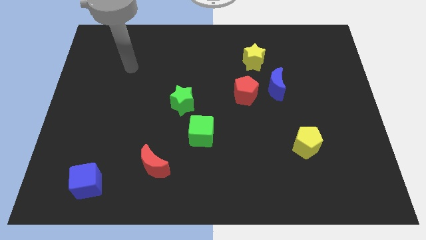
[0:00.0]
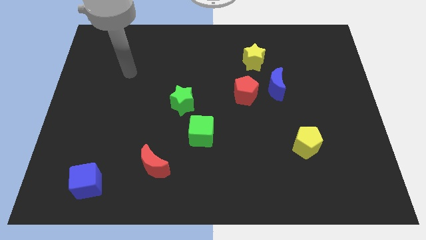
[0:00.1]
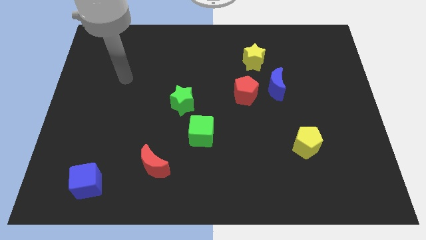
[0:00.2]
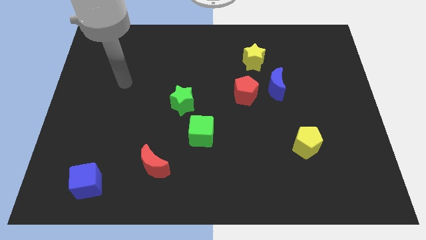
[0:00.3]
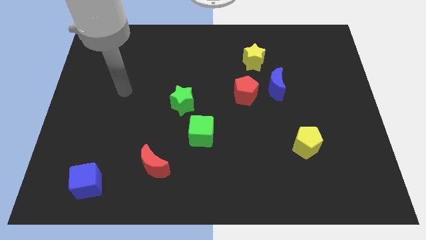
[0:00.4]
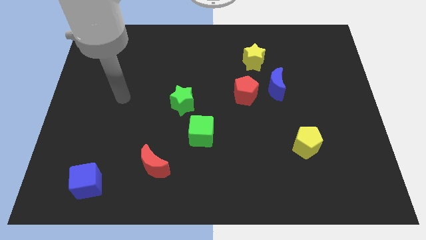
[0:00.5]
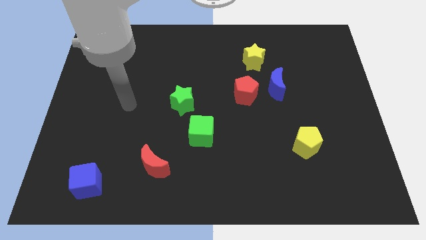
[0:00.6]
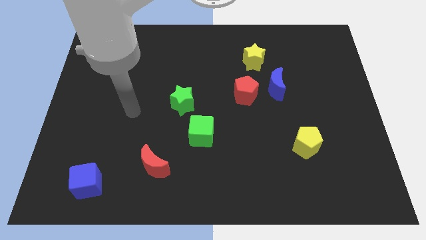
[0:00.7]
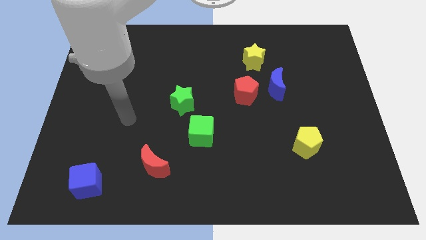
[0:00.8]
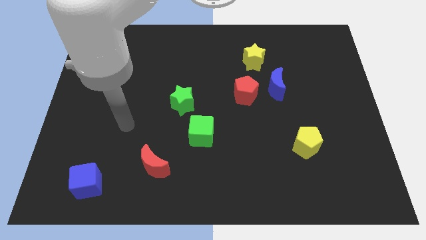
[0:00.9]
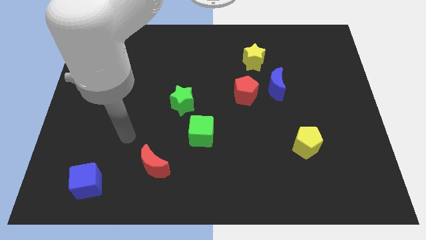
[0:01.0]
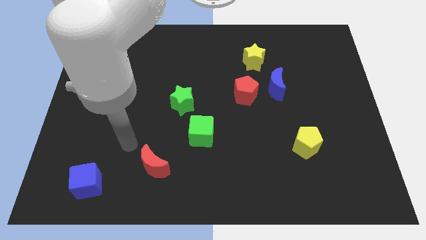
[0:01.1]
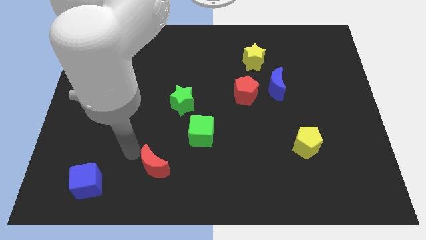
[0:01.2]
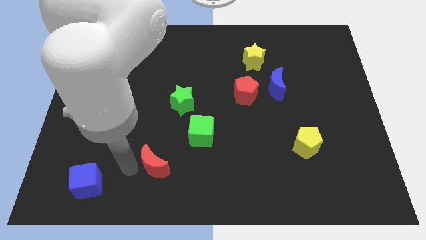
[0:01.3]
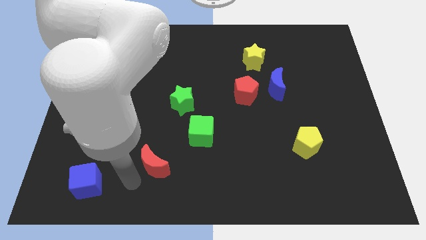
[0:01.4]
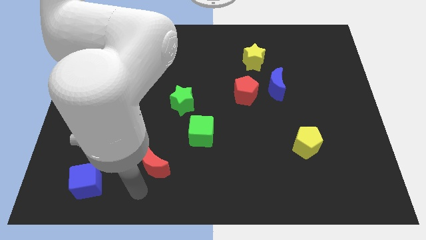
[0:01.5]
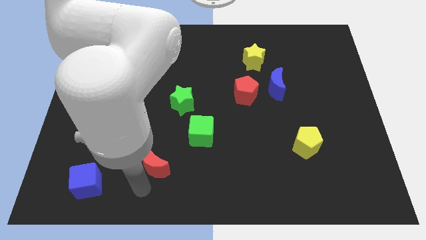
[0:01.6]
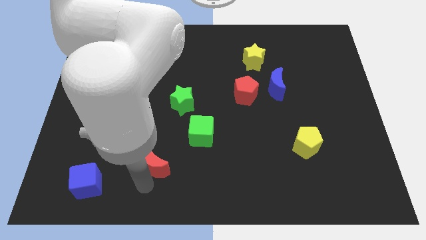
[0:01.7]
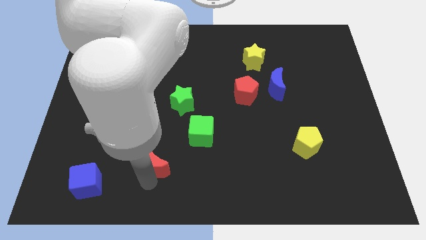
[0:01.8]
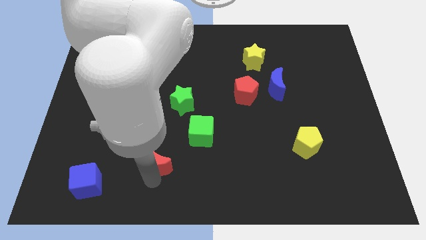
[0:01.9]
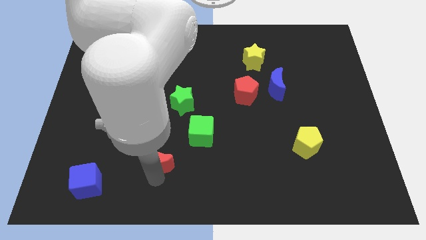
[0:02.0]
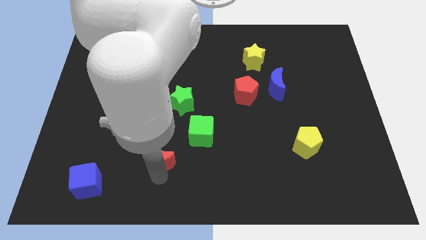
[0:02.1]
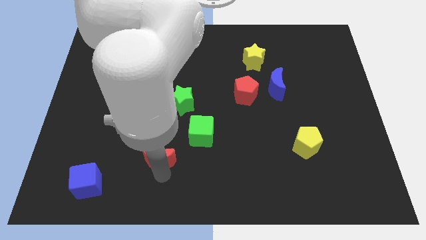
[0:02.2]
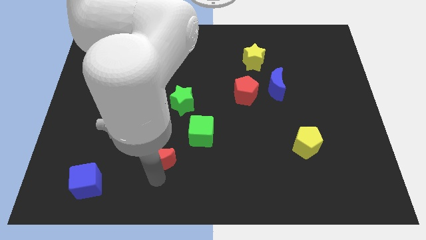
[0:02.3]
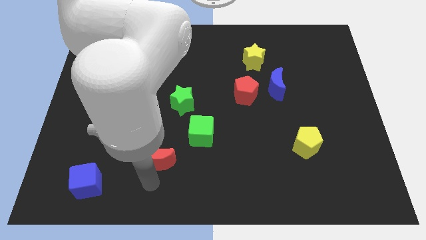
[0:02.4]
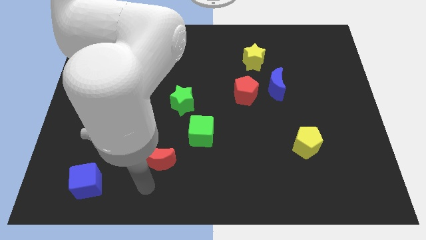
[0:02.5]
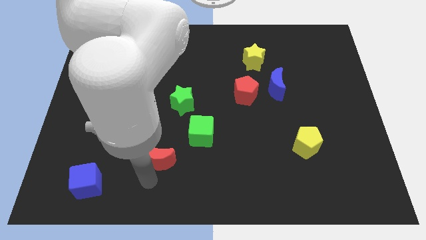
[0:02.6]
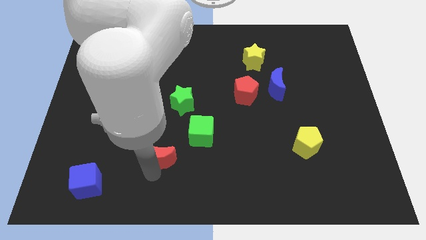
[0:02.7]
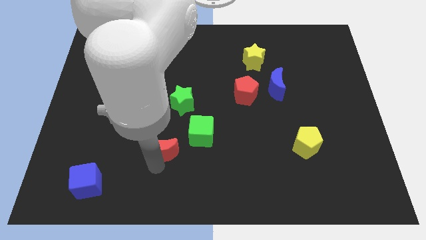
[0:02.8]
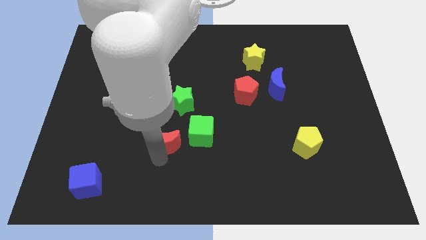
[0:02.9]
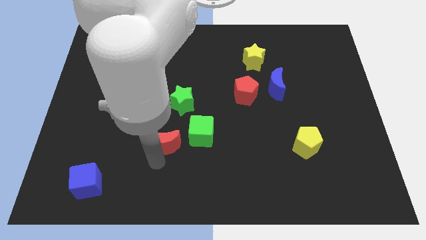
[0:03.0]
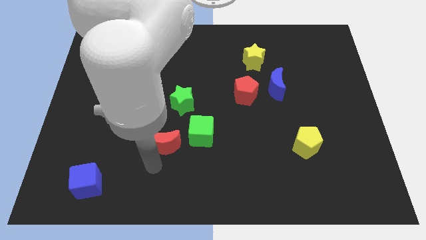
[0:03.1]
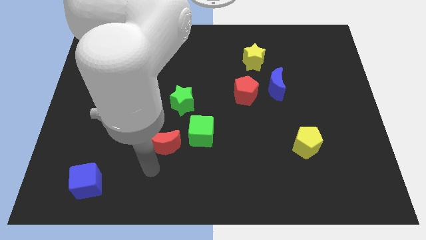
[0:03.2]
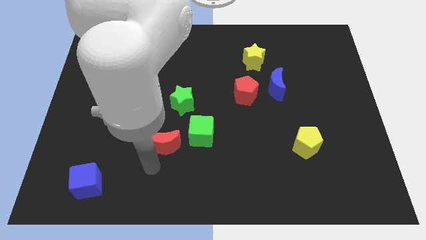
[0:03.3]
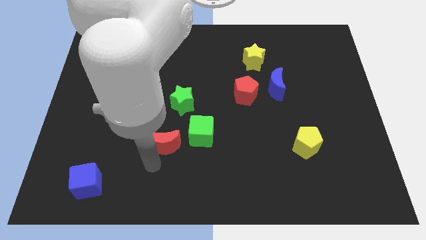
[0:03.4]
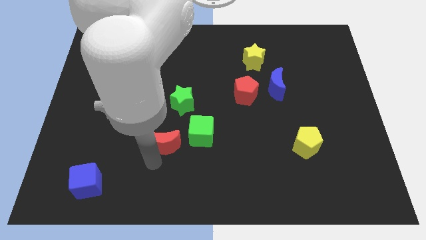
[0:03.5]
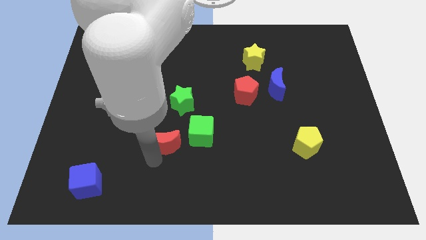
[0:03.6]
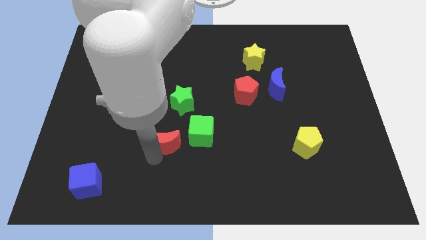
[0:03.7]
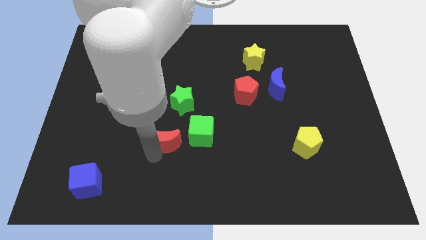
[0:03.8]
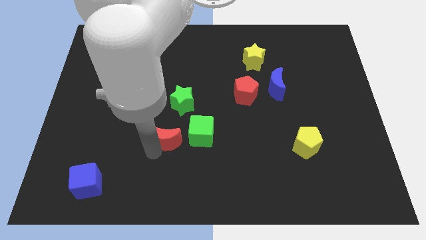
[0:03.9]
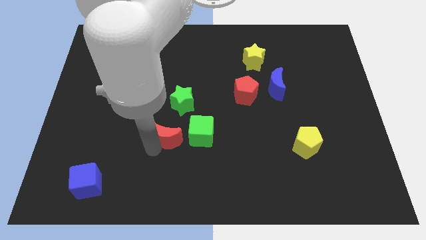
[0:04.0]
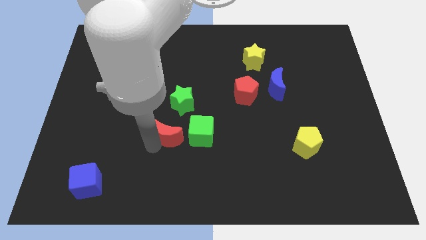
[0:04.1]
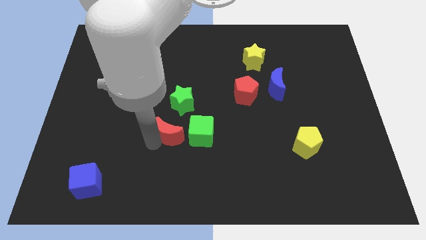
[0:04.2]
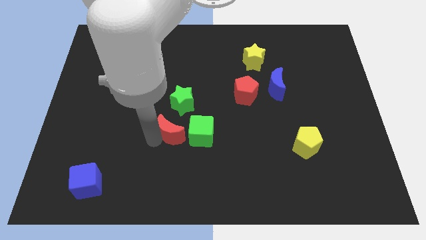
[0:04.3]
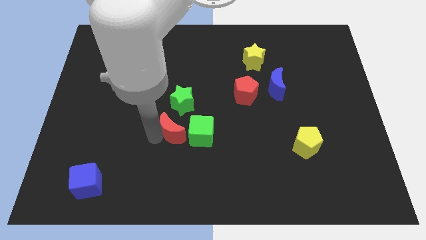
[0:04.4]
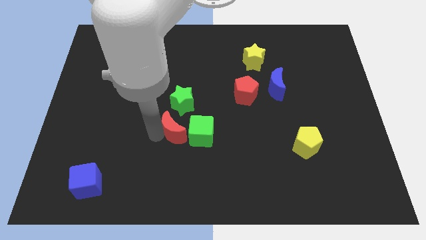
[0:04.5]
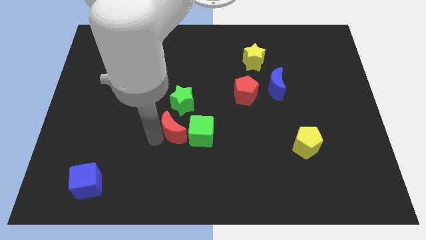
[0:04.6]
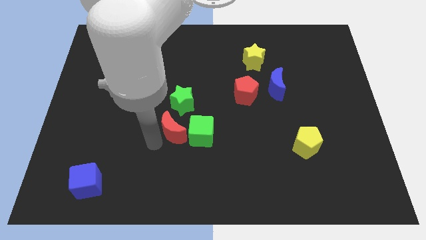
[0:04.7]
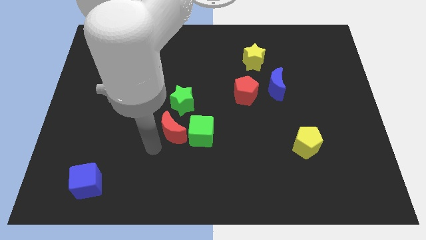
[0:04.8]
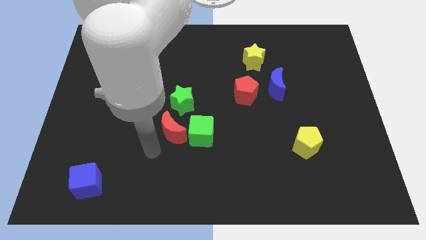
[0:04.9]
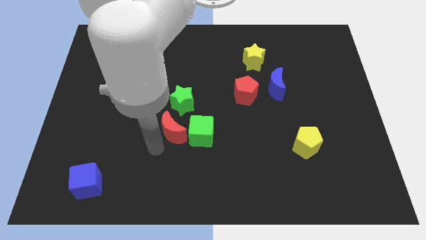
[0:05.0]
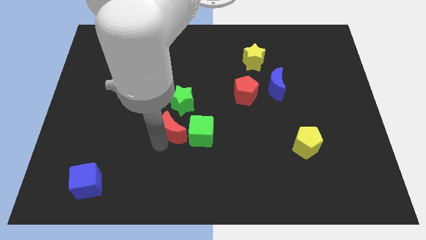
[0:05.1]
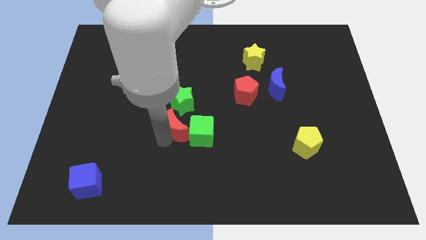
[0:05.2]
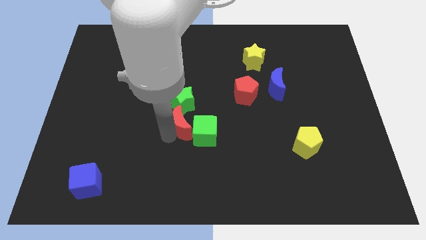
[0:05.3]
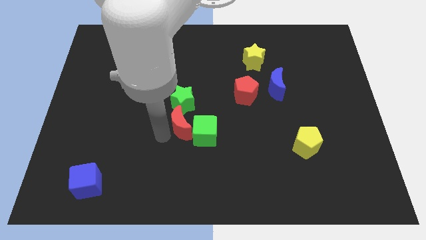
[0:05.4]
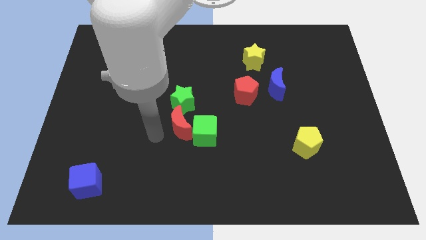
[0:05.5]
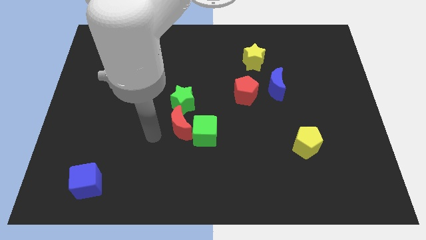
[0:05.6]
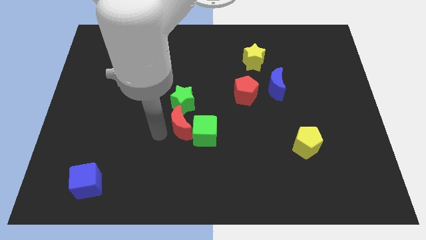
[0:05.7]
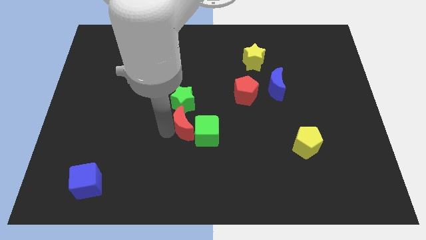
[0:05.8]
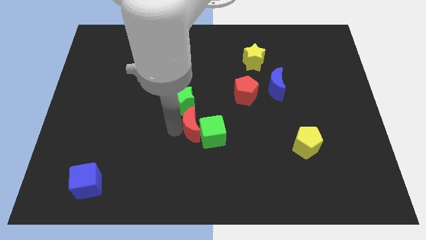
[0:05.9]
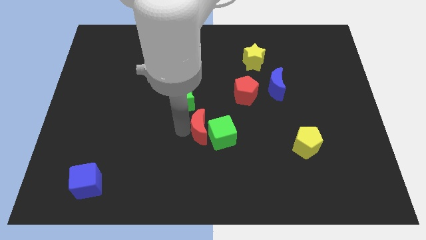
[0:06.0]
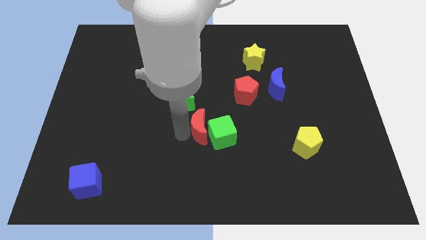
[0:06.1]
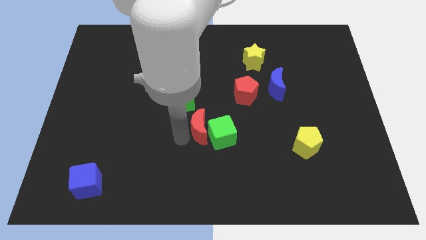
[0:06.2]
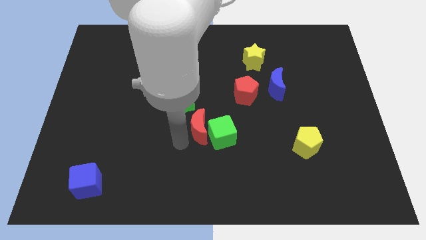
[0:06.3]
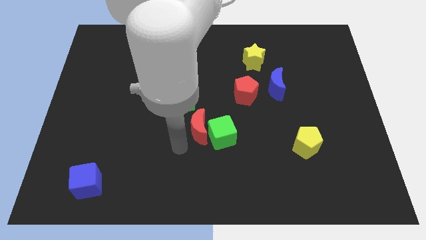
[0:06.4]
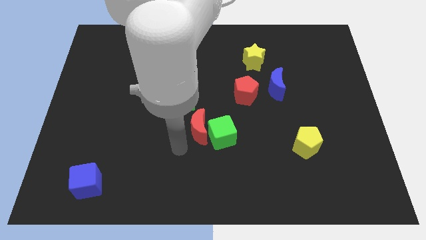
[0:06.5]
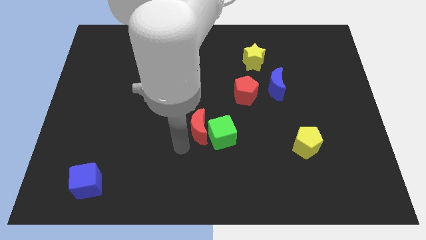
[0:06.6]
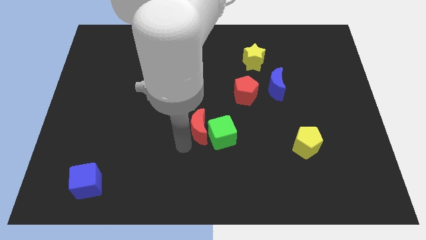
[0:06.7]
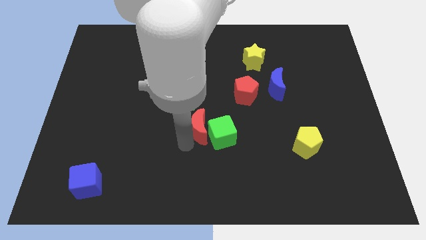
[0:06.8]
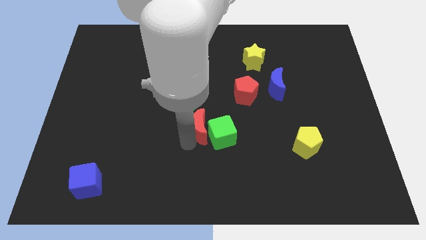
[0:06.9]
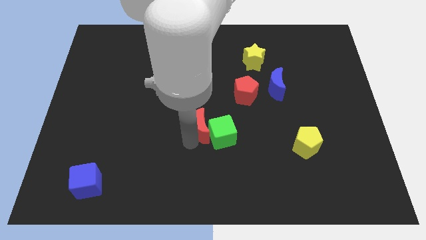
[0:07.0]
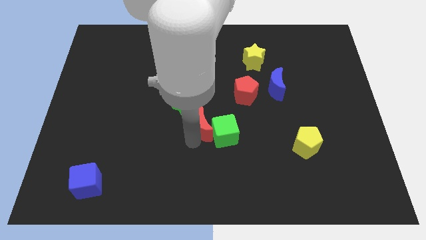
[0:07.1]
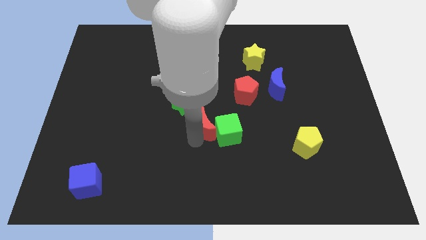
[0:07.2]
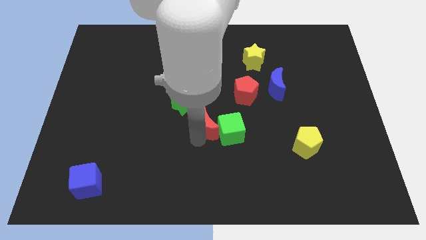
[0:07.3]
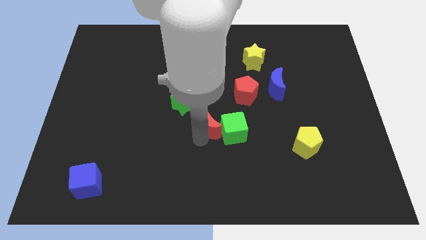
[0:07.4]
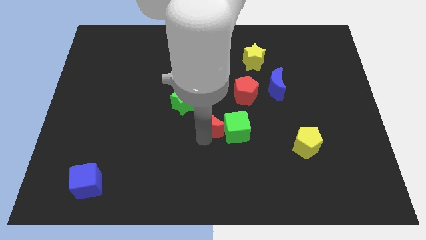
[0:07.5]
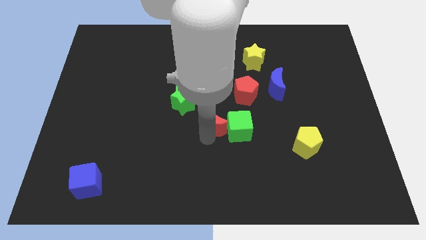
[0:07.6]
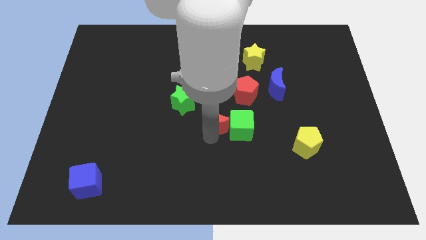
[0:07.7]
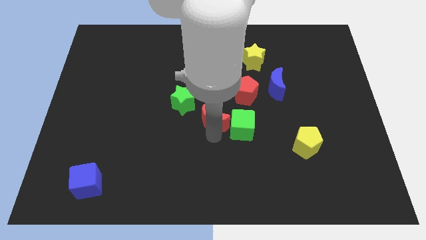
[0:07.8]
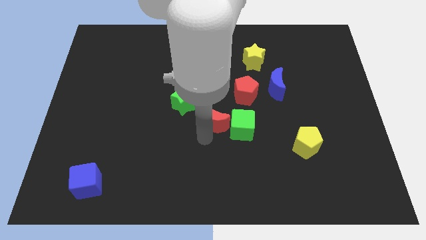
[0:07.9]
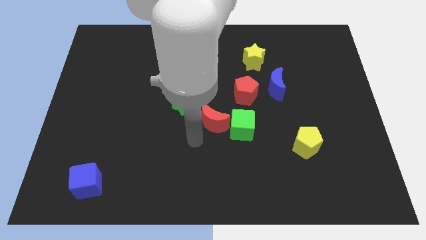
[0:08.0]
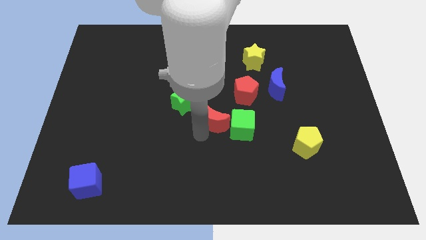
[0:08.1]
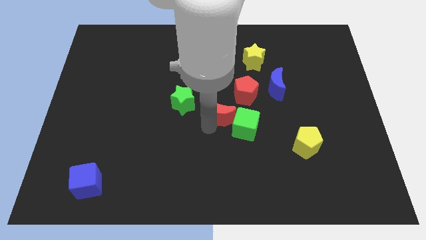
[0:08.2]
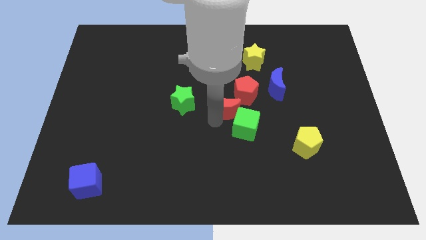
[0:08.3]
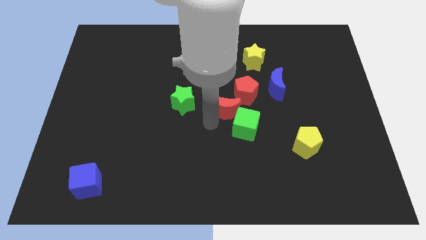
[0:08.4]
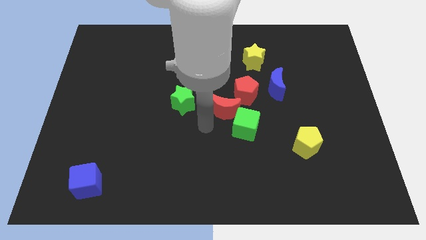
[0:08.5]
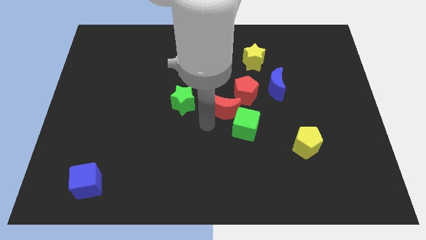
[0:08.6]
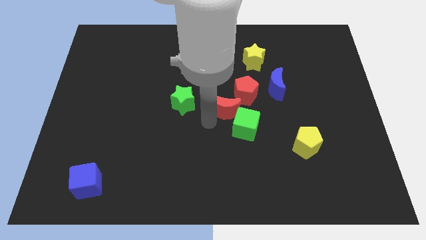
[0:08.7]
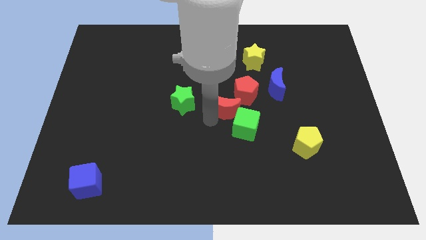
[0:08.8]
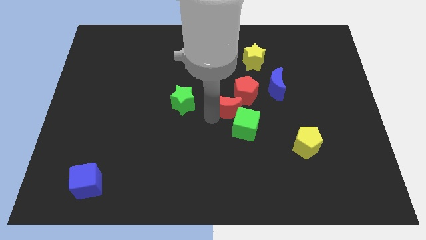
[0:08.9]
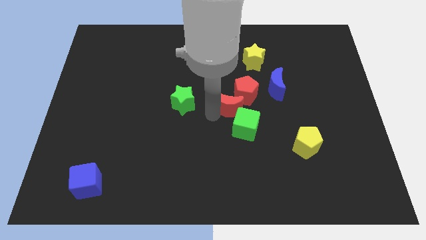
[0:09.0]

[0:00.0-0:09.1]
put the red moon next to the red pentagon
